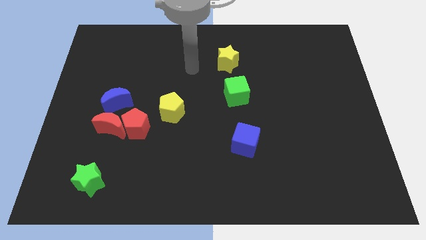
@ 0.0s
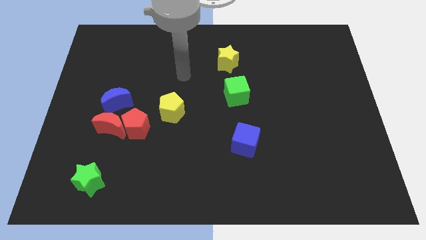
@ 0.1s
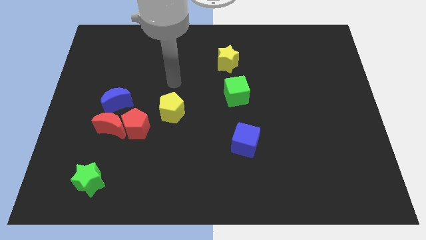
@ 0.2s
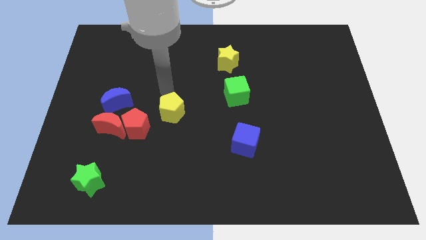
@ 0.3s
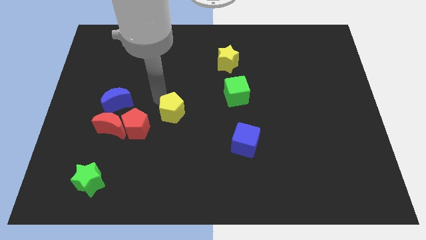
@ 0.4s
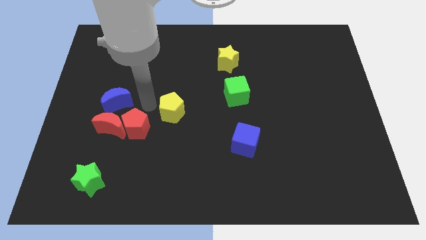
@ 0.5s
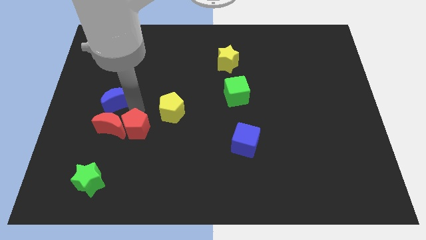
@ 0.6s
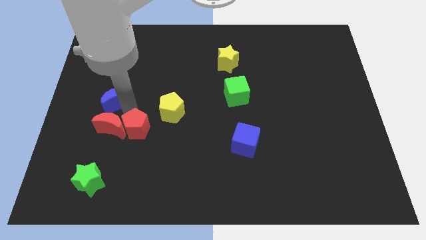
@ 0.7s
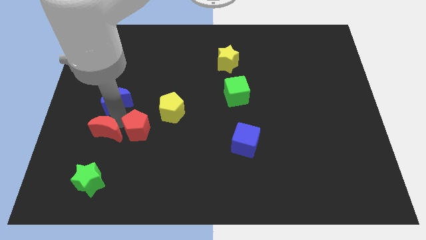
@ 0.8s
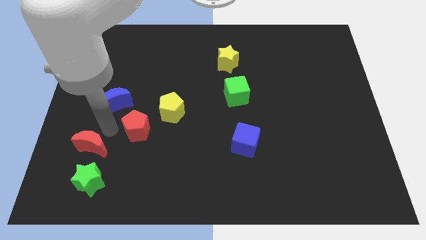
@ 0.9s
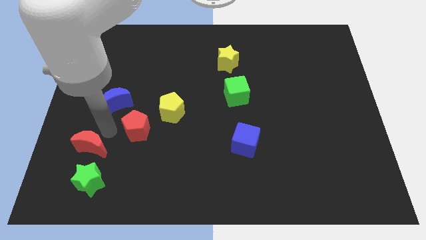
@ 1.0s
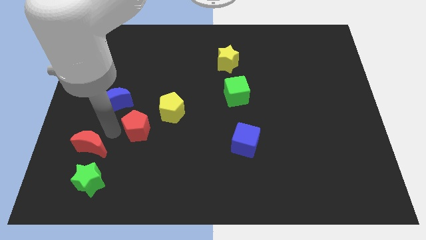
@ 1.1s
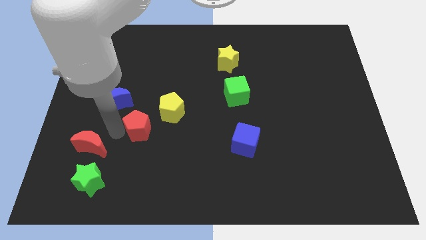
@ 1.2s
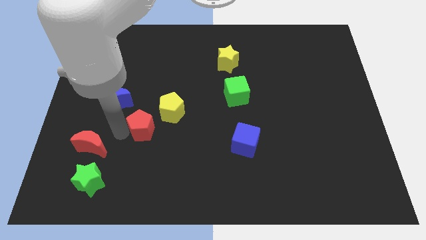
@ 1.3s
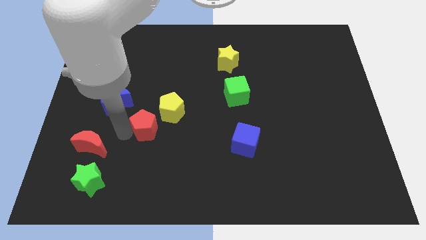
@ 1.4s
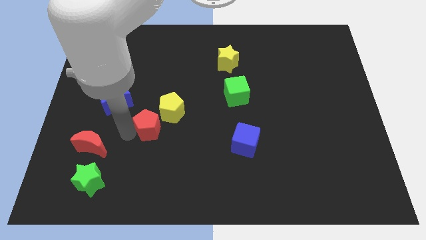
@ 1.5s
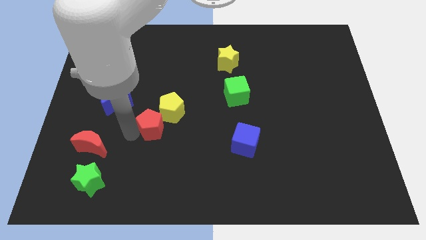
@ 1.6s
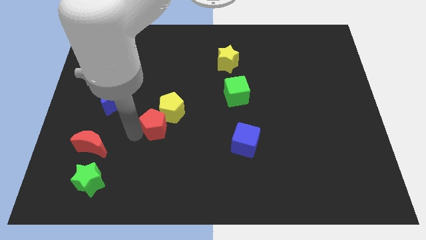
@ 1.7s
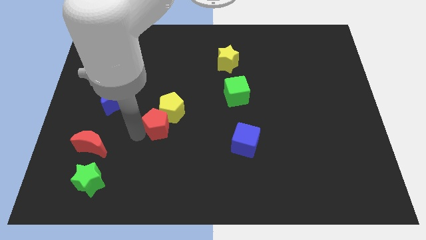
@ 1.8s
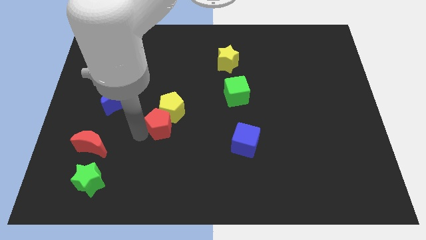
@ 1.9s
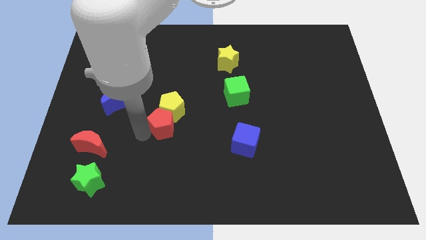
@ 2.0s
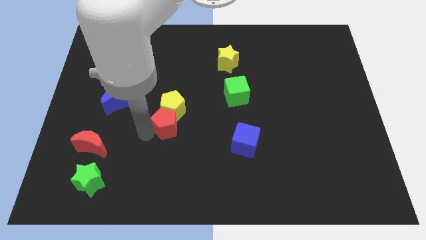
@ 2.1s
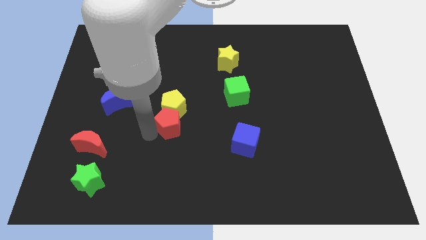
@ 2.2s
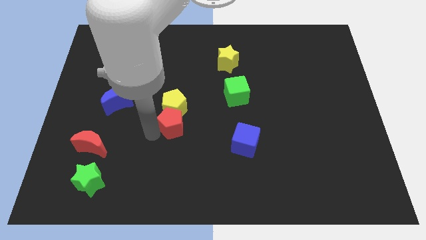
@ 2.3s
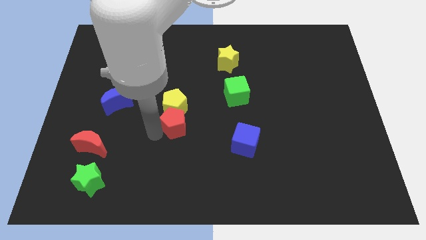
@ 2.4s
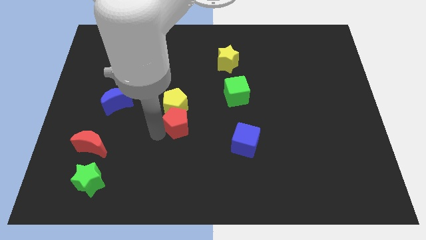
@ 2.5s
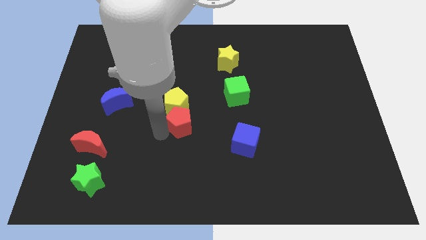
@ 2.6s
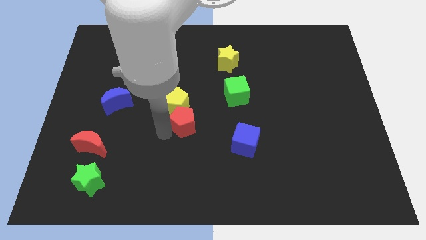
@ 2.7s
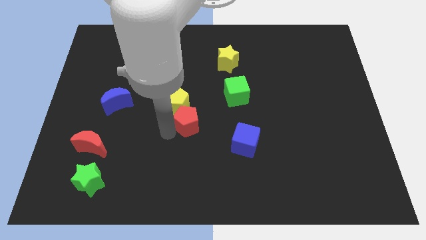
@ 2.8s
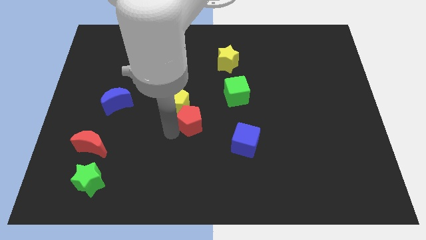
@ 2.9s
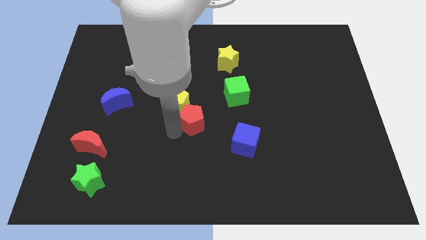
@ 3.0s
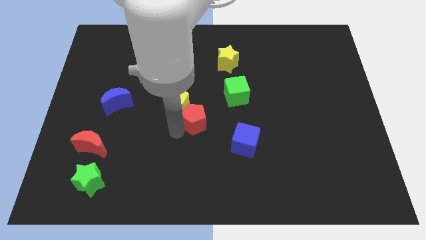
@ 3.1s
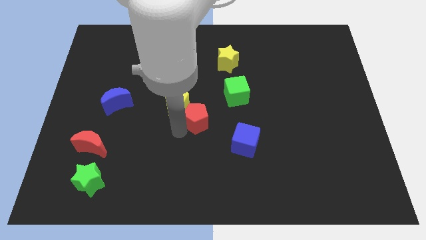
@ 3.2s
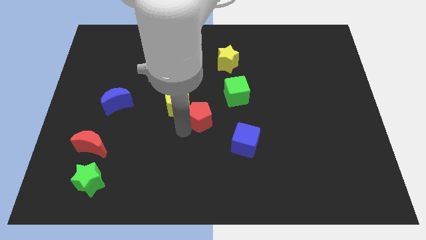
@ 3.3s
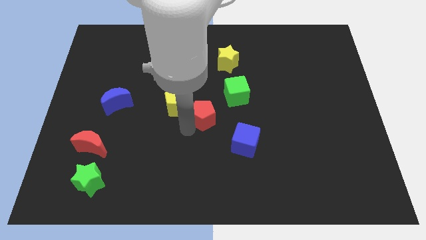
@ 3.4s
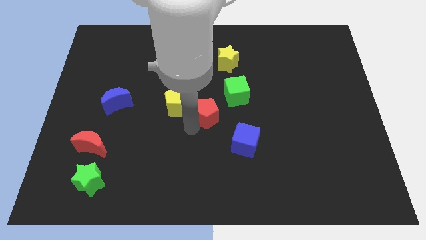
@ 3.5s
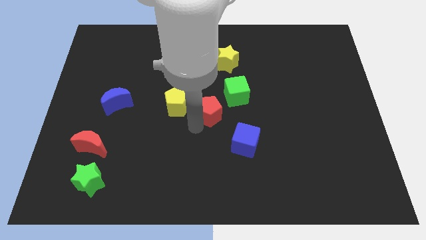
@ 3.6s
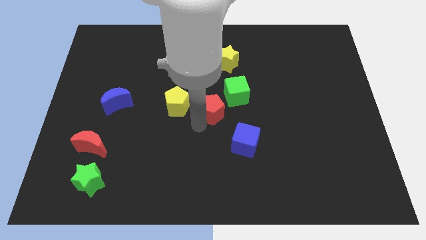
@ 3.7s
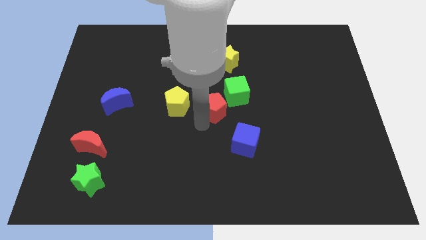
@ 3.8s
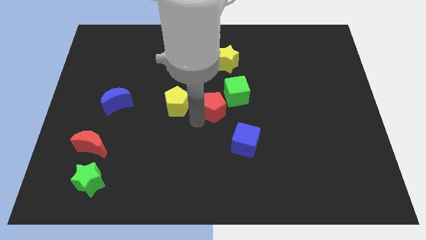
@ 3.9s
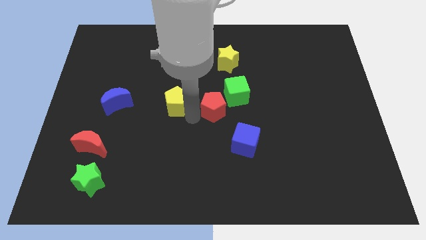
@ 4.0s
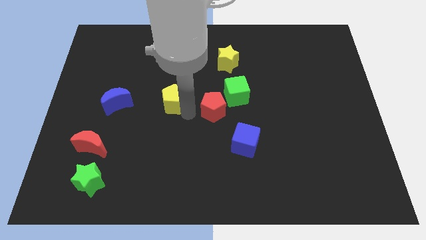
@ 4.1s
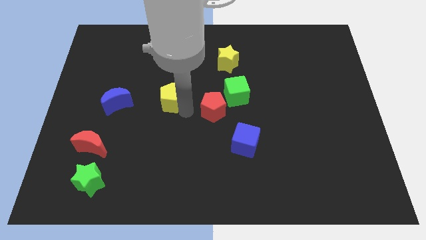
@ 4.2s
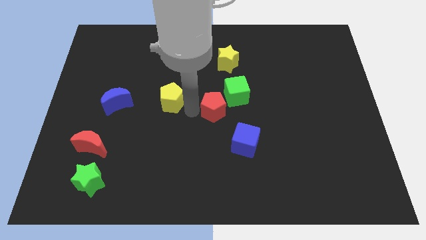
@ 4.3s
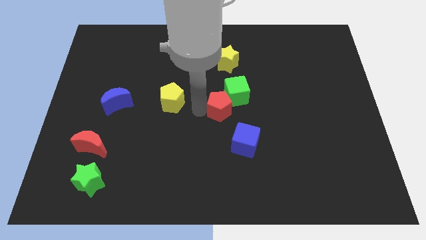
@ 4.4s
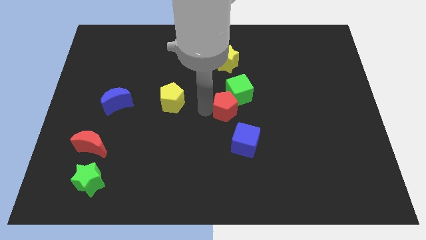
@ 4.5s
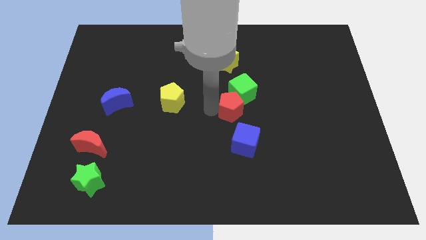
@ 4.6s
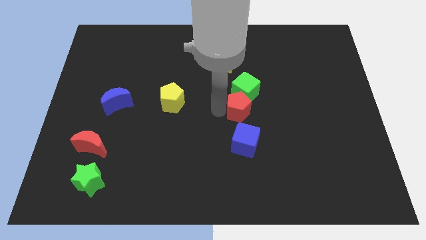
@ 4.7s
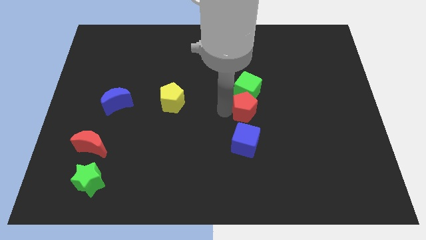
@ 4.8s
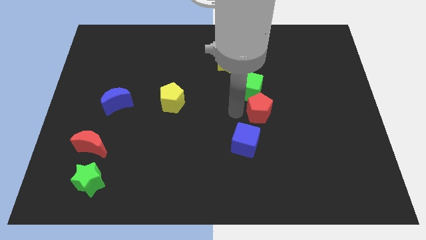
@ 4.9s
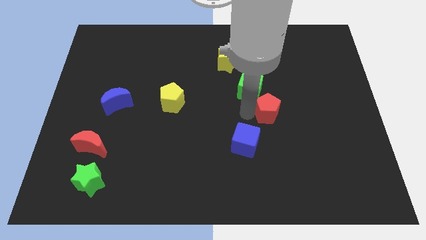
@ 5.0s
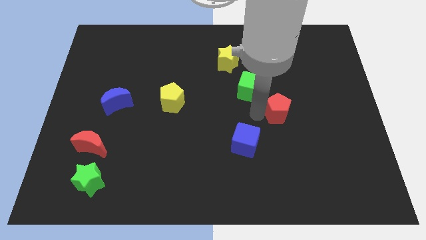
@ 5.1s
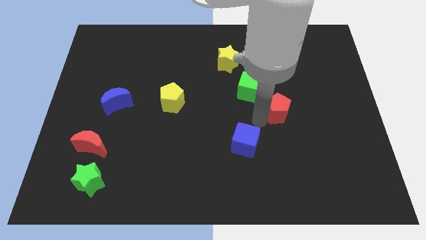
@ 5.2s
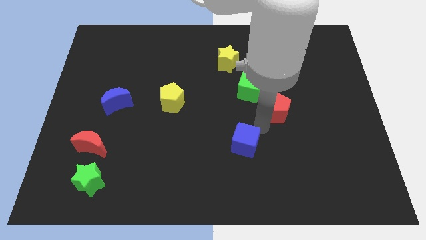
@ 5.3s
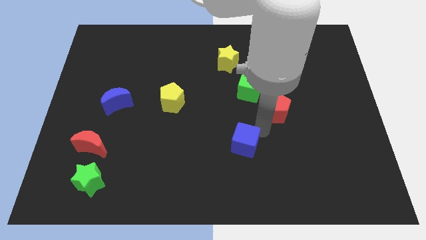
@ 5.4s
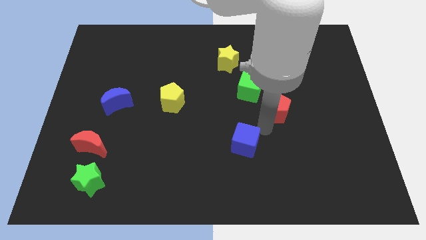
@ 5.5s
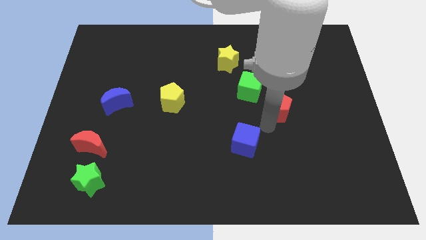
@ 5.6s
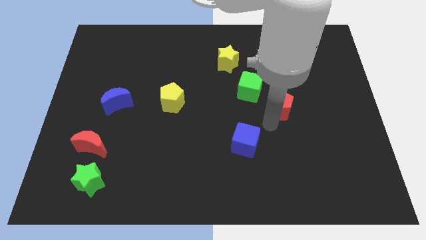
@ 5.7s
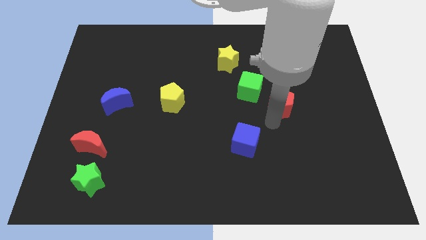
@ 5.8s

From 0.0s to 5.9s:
move the red pentagon just right of the green cube

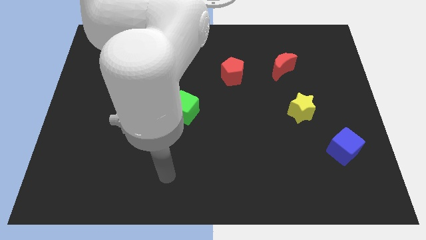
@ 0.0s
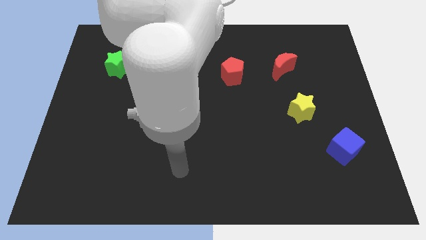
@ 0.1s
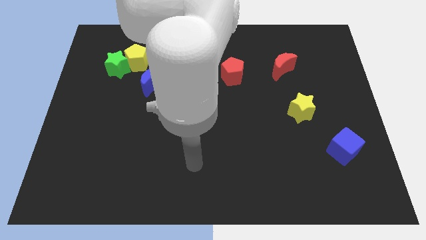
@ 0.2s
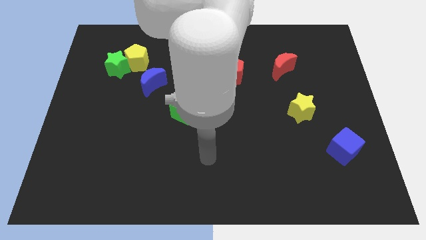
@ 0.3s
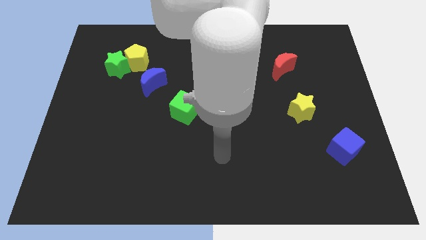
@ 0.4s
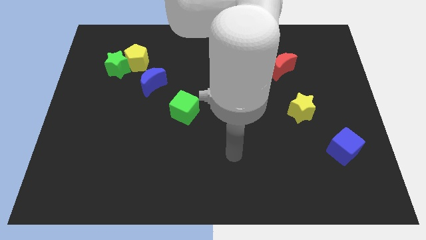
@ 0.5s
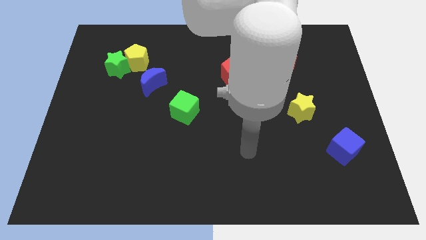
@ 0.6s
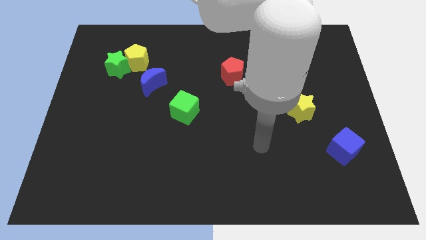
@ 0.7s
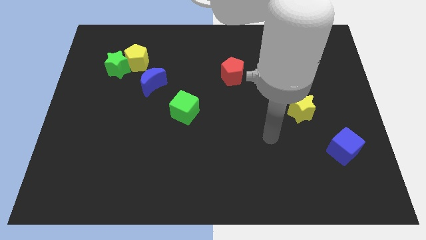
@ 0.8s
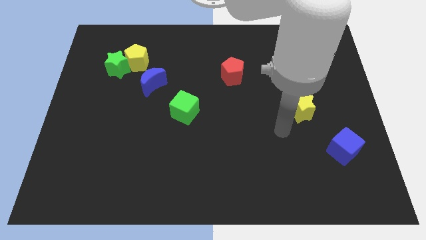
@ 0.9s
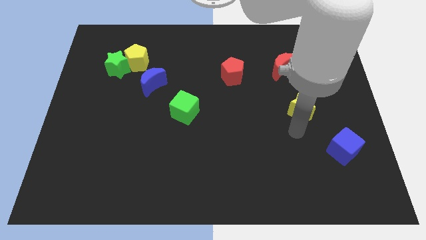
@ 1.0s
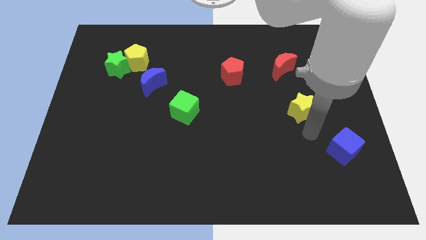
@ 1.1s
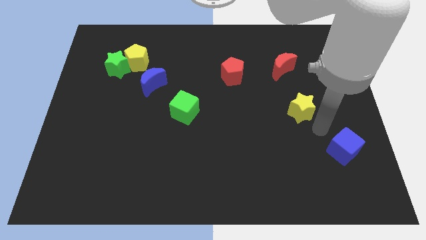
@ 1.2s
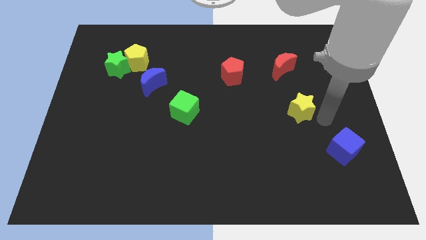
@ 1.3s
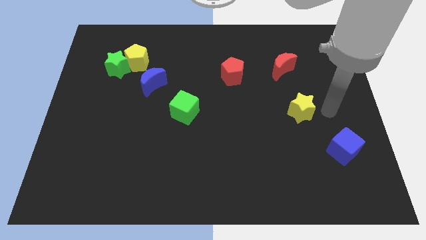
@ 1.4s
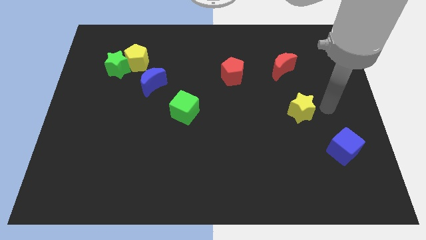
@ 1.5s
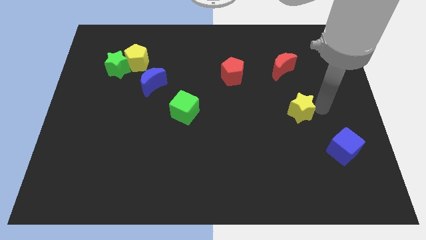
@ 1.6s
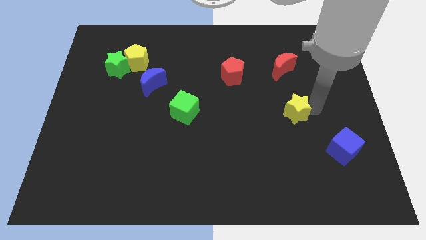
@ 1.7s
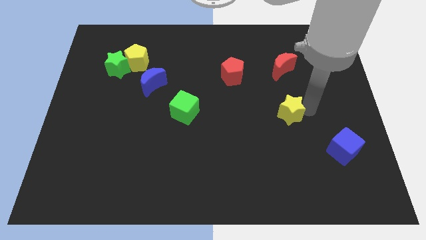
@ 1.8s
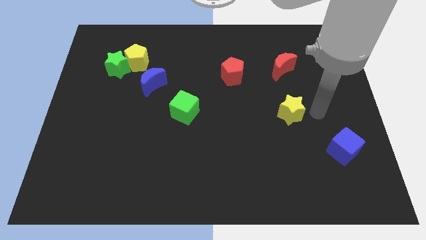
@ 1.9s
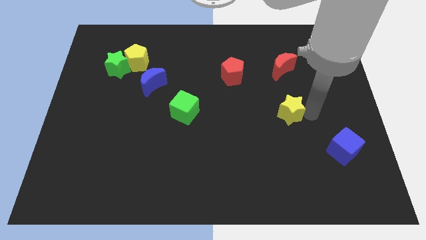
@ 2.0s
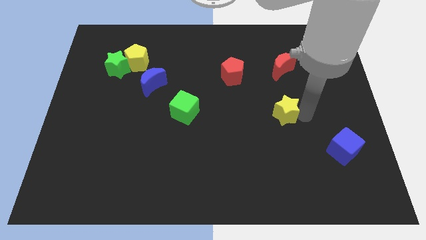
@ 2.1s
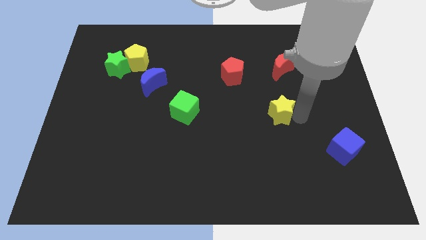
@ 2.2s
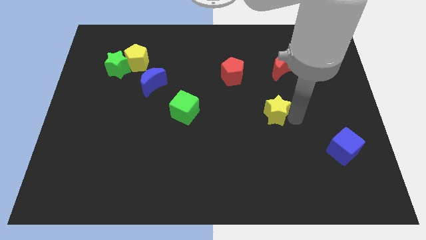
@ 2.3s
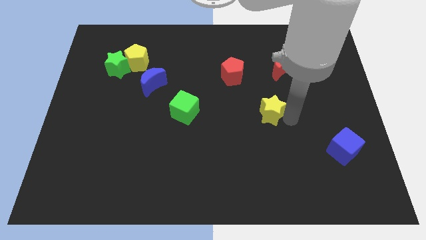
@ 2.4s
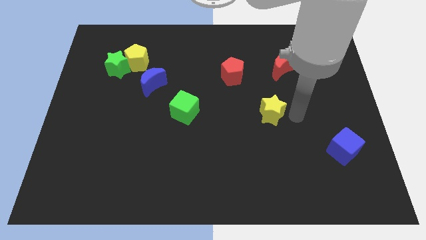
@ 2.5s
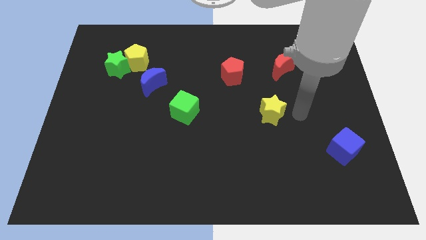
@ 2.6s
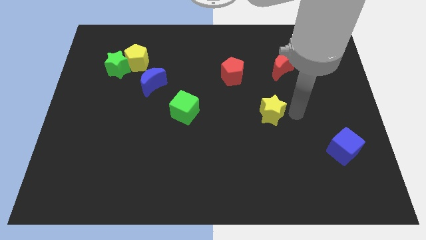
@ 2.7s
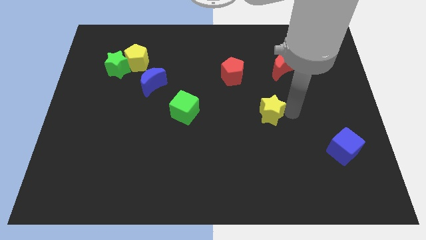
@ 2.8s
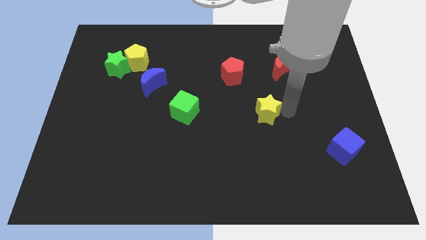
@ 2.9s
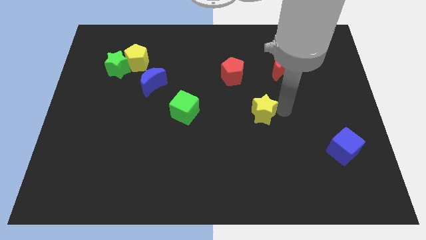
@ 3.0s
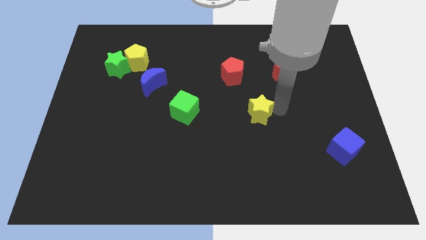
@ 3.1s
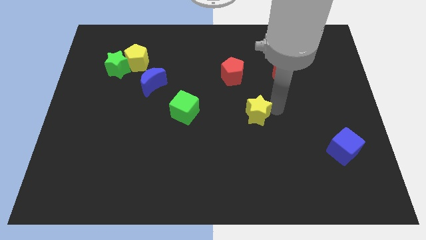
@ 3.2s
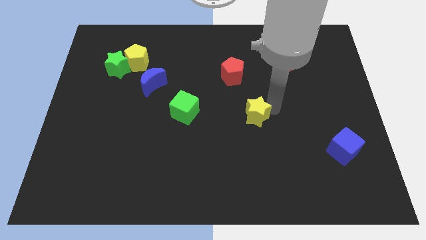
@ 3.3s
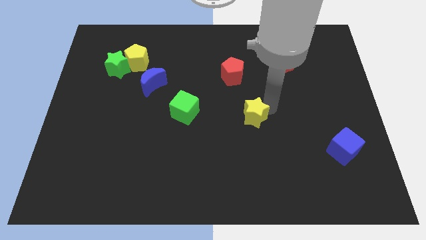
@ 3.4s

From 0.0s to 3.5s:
put the yellow star to the right side of the green cube
